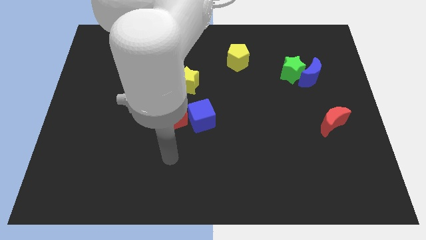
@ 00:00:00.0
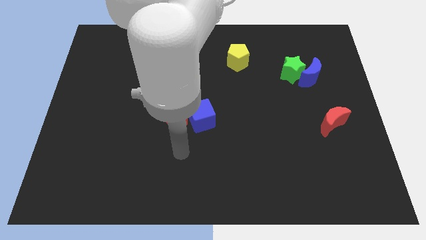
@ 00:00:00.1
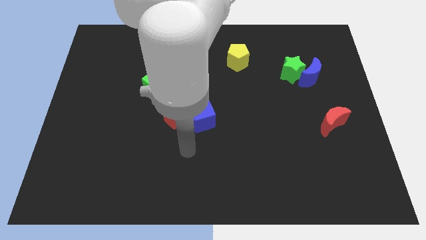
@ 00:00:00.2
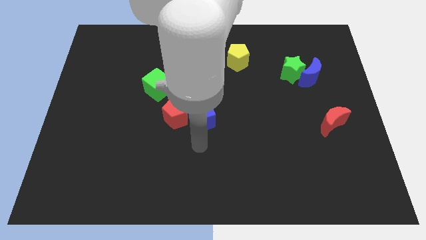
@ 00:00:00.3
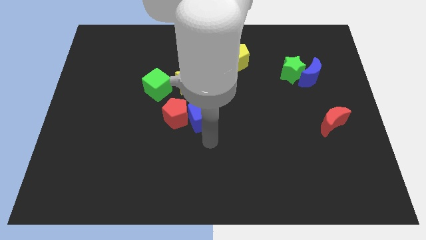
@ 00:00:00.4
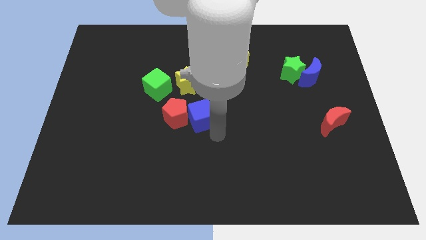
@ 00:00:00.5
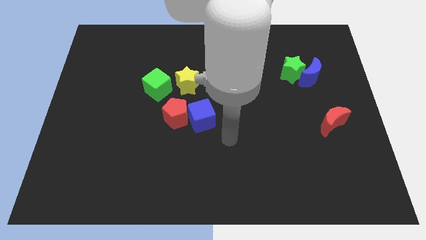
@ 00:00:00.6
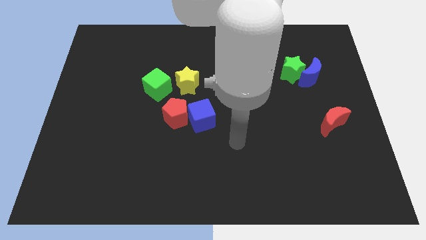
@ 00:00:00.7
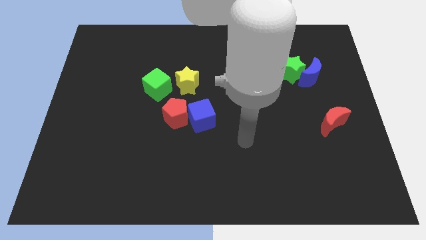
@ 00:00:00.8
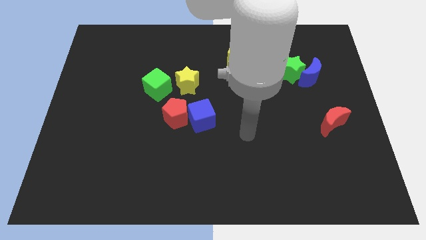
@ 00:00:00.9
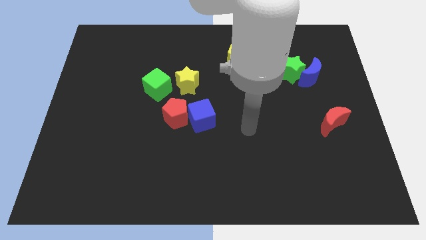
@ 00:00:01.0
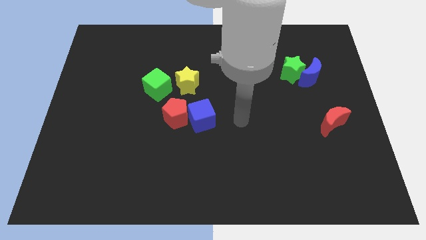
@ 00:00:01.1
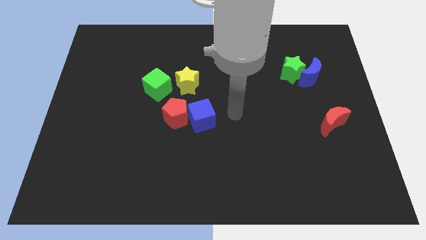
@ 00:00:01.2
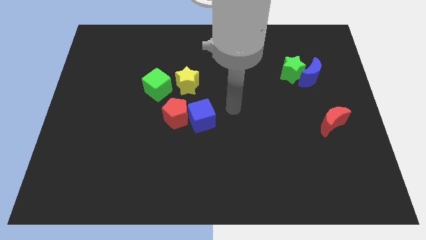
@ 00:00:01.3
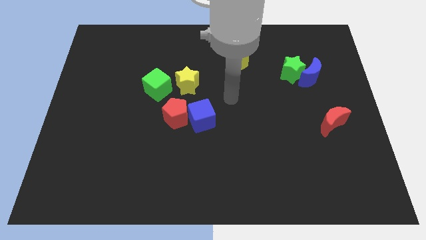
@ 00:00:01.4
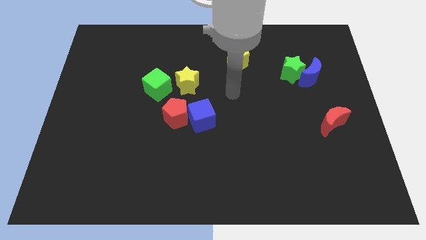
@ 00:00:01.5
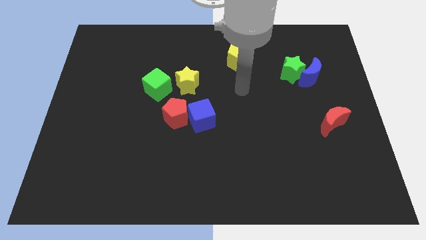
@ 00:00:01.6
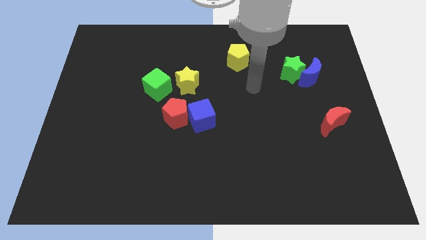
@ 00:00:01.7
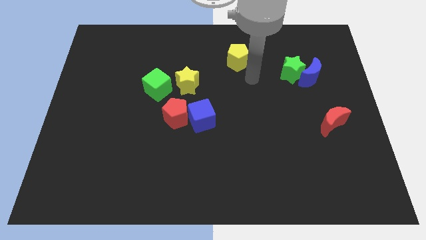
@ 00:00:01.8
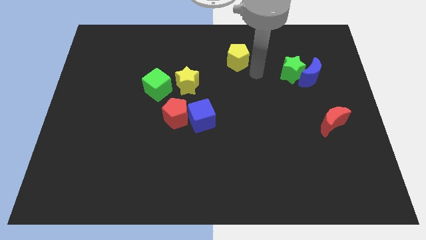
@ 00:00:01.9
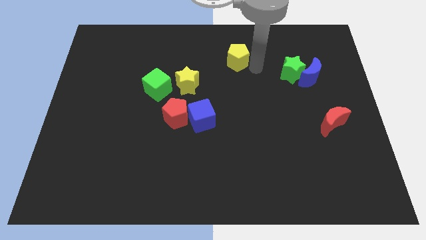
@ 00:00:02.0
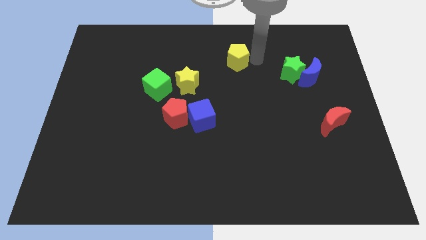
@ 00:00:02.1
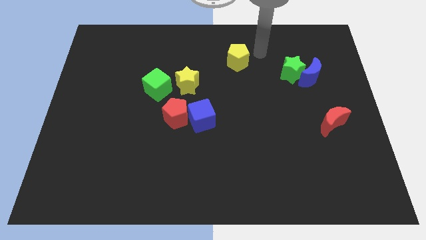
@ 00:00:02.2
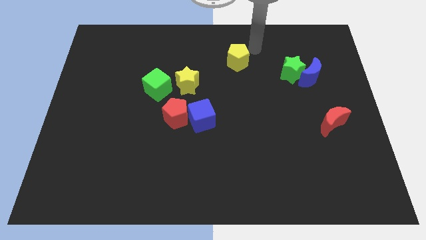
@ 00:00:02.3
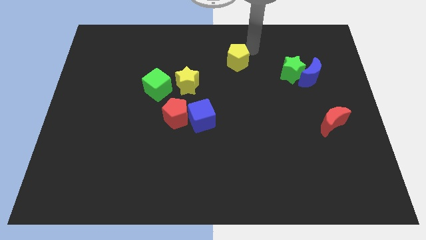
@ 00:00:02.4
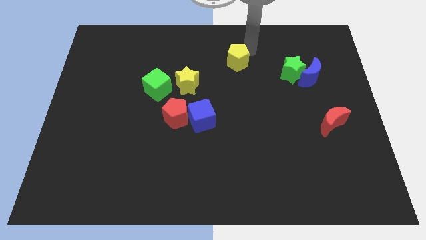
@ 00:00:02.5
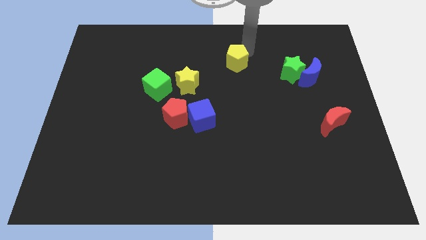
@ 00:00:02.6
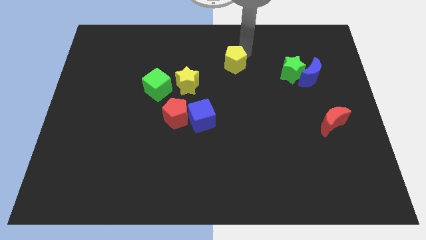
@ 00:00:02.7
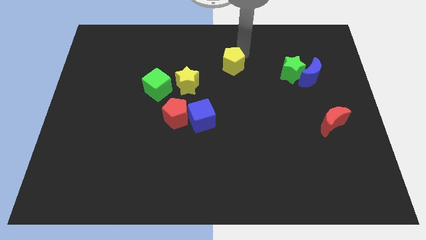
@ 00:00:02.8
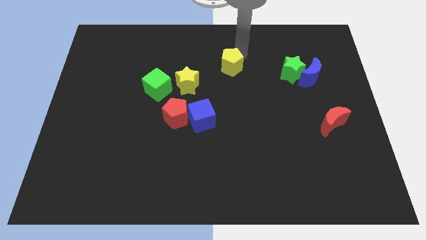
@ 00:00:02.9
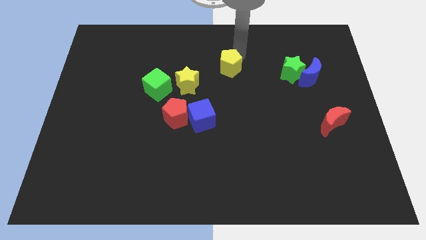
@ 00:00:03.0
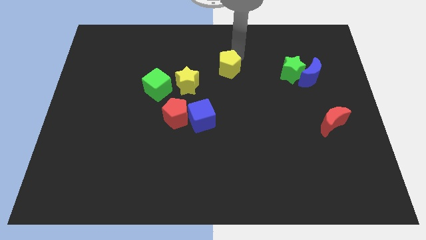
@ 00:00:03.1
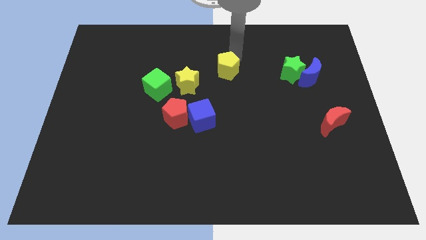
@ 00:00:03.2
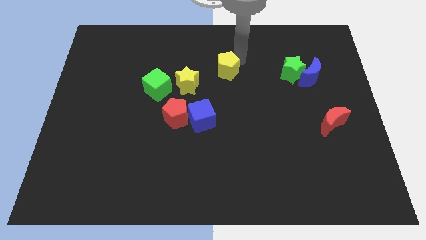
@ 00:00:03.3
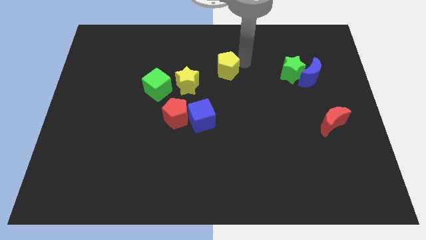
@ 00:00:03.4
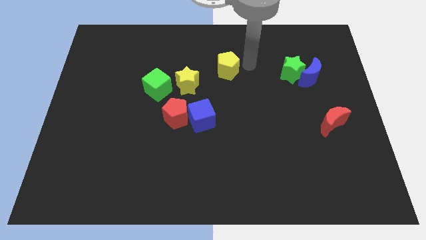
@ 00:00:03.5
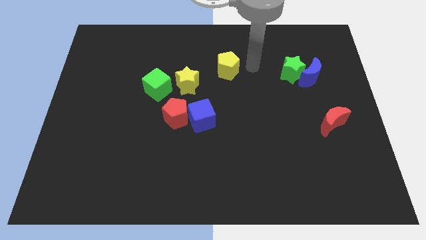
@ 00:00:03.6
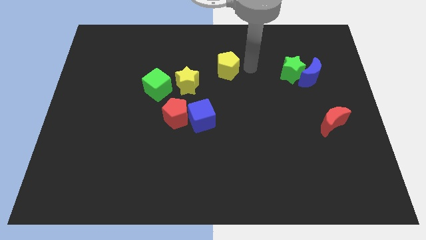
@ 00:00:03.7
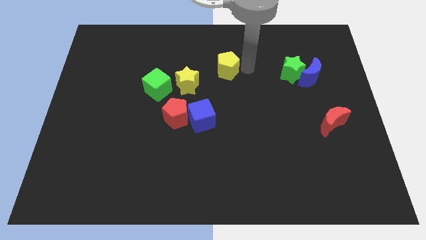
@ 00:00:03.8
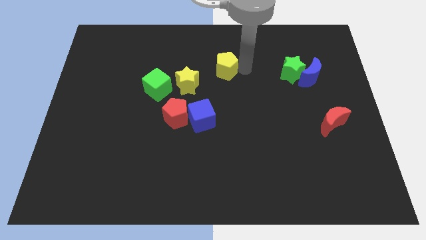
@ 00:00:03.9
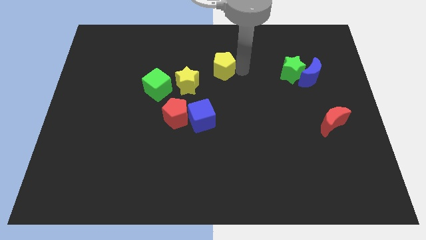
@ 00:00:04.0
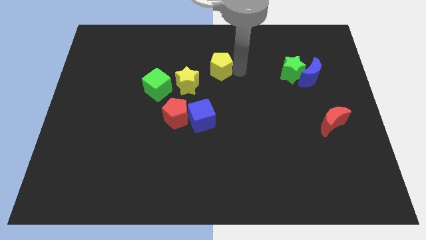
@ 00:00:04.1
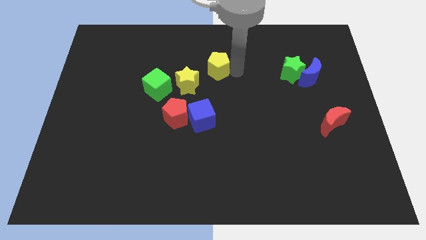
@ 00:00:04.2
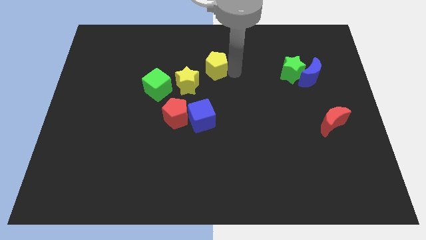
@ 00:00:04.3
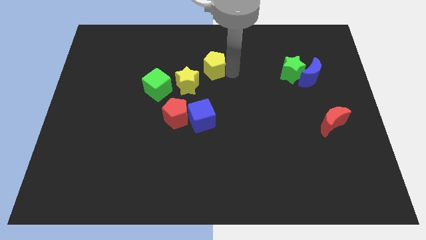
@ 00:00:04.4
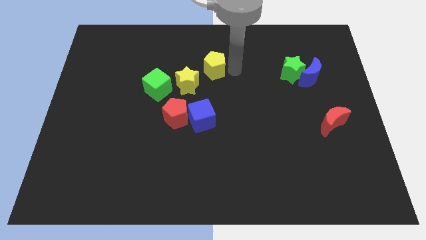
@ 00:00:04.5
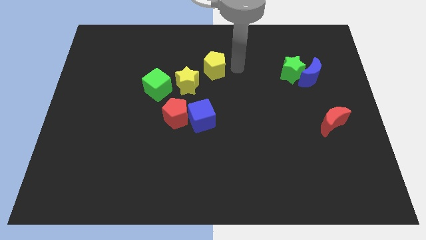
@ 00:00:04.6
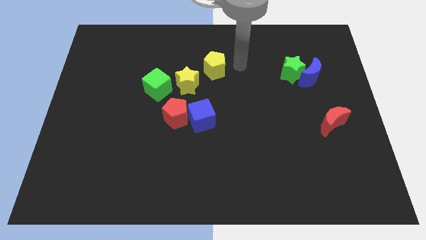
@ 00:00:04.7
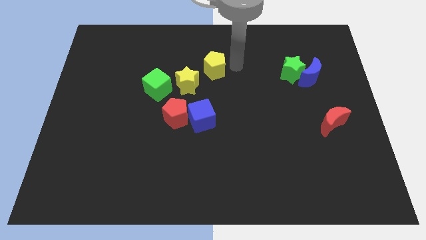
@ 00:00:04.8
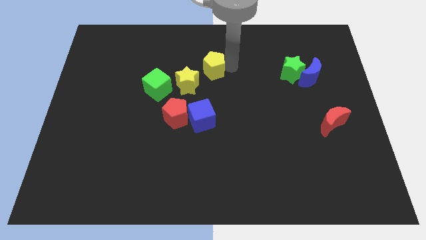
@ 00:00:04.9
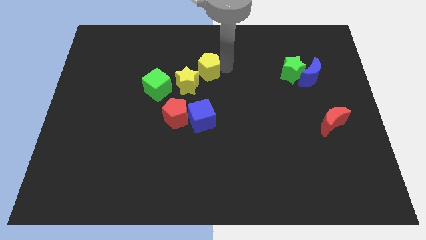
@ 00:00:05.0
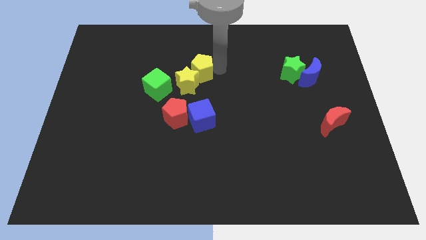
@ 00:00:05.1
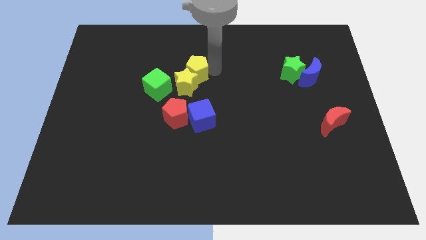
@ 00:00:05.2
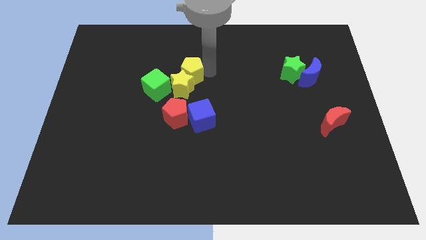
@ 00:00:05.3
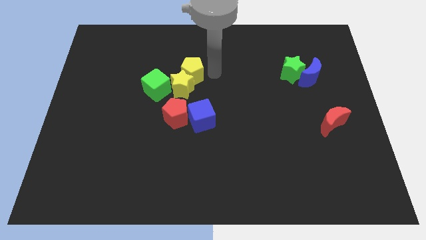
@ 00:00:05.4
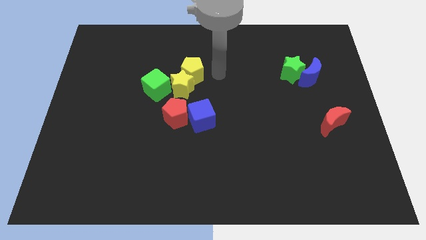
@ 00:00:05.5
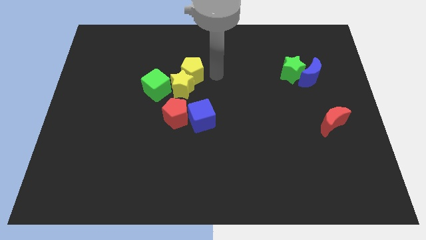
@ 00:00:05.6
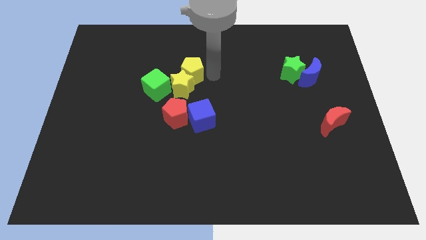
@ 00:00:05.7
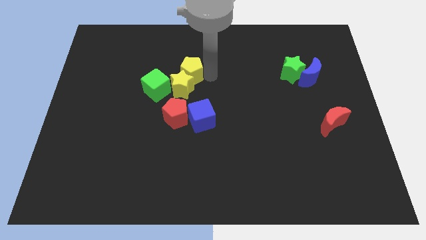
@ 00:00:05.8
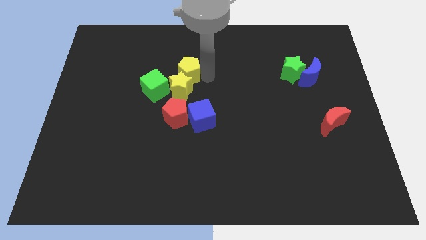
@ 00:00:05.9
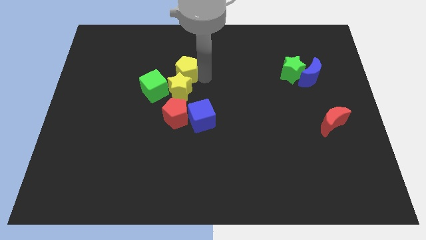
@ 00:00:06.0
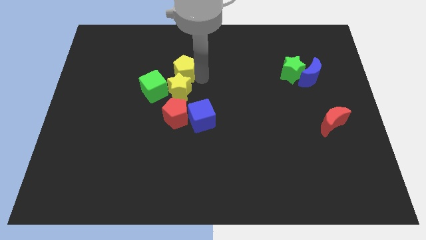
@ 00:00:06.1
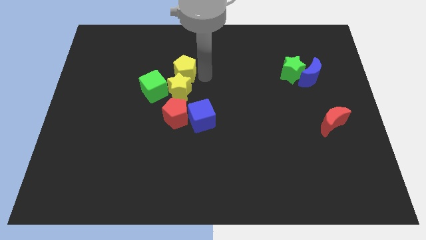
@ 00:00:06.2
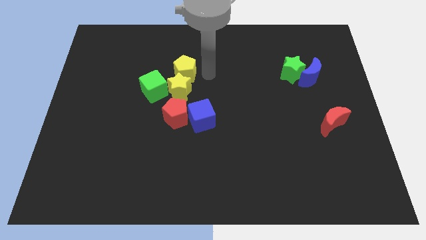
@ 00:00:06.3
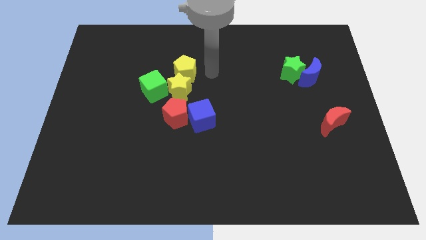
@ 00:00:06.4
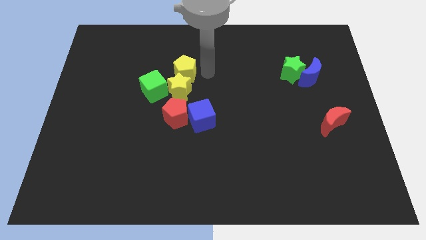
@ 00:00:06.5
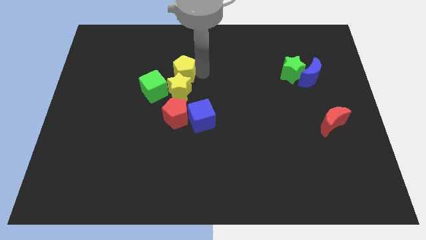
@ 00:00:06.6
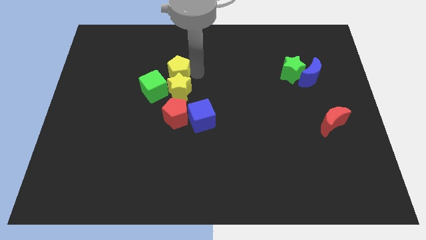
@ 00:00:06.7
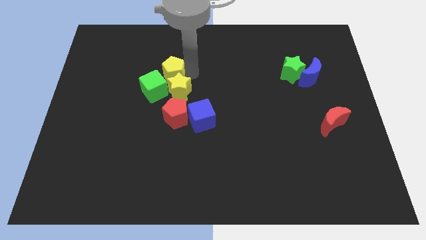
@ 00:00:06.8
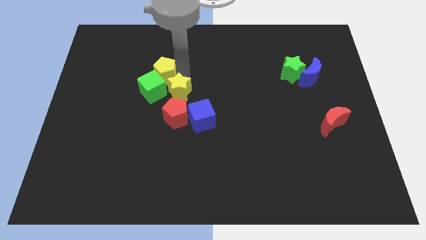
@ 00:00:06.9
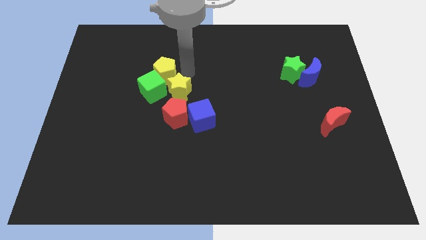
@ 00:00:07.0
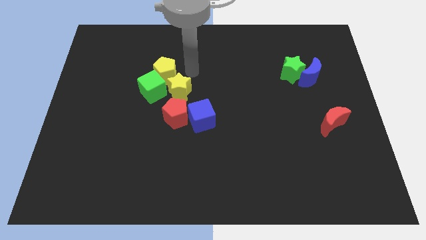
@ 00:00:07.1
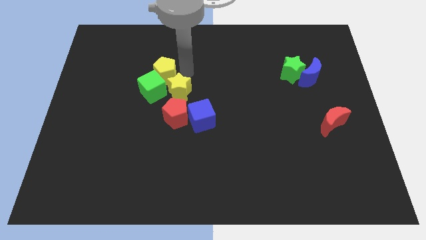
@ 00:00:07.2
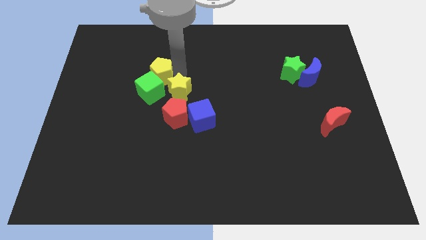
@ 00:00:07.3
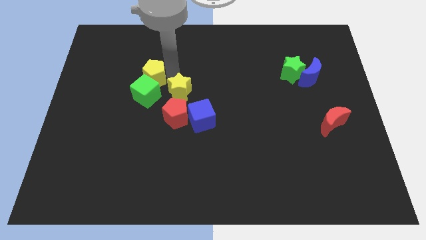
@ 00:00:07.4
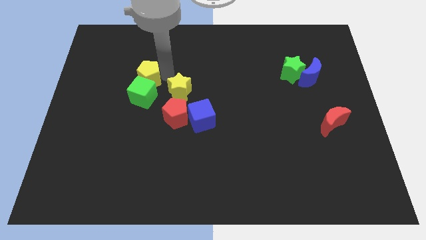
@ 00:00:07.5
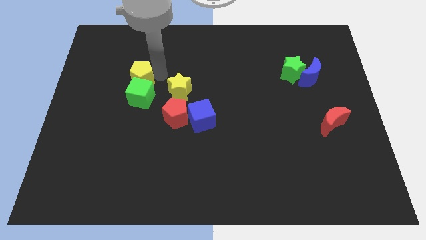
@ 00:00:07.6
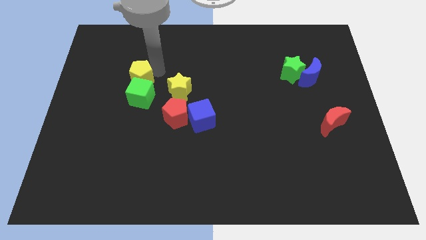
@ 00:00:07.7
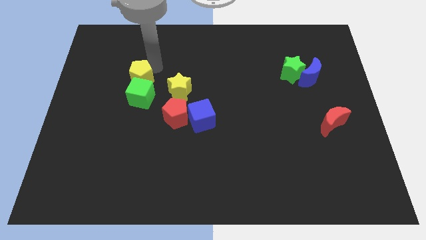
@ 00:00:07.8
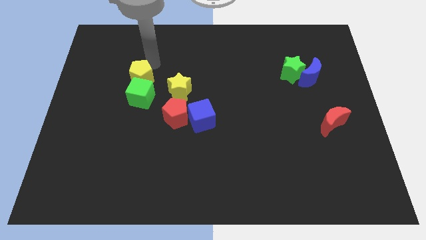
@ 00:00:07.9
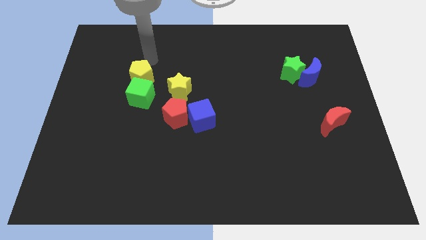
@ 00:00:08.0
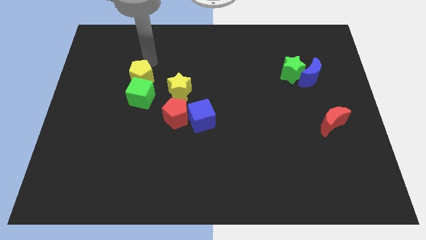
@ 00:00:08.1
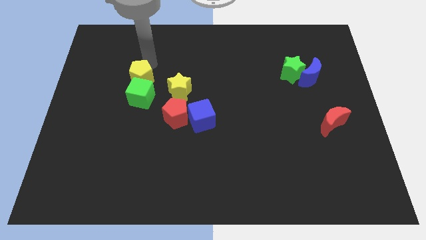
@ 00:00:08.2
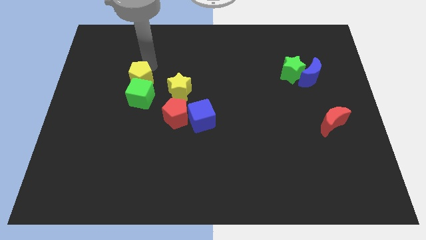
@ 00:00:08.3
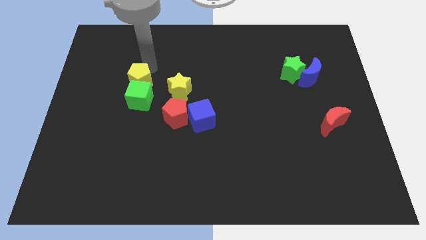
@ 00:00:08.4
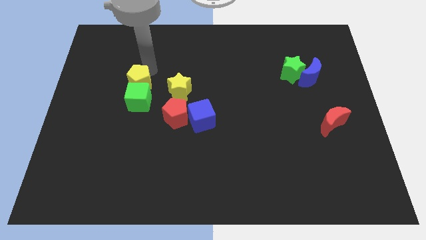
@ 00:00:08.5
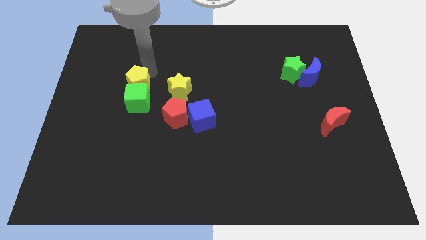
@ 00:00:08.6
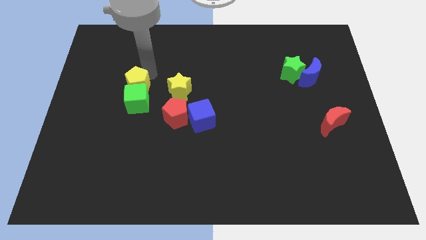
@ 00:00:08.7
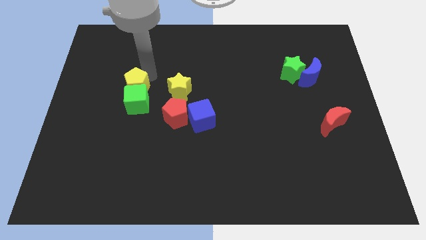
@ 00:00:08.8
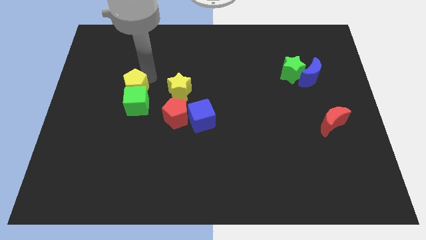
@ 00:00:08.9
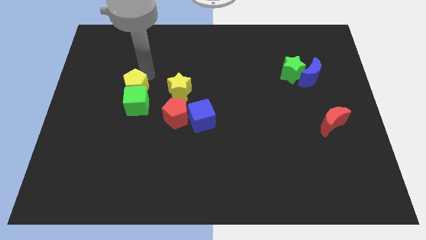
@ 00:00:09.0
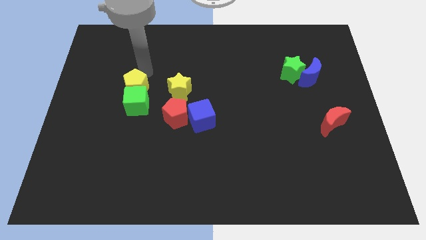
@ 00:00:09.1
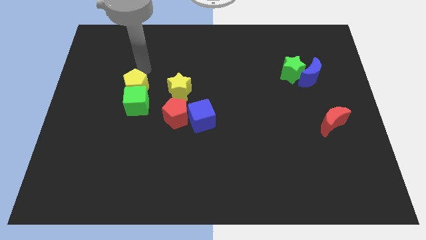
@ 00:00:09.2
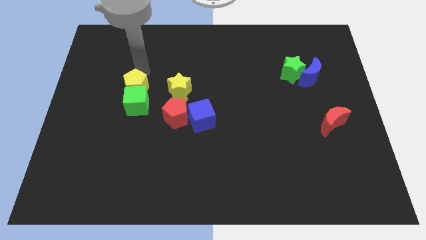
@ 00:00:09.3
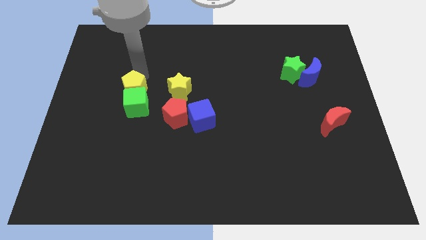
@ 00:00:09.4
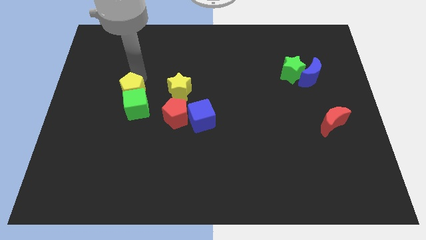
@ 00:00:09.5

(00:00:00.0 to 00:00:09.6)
push the yellow pentagon down and then left
